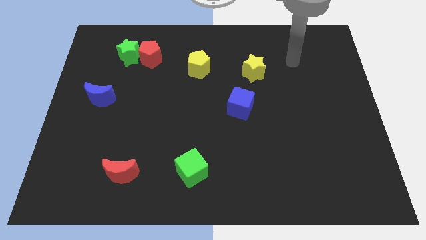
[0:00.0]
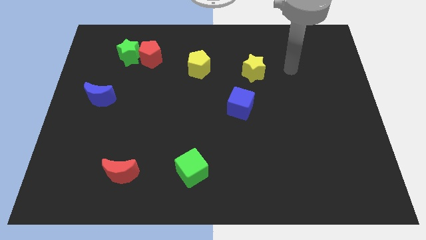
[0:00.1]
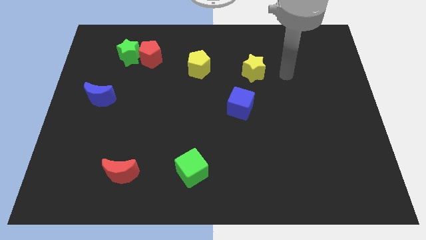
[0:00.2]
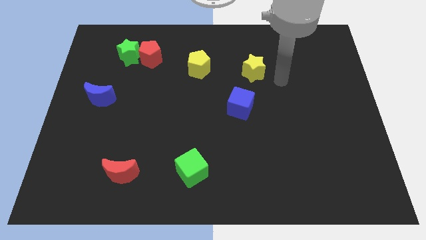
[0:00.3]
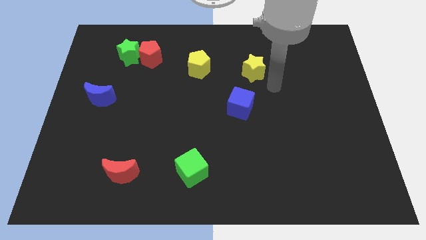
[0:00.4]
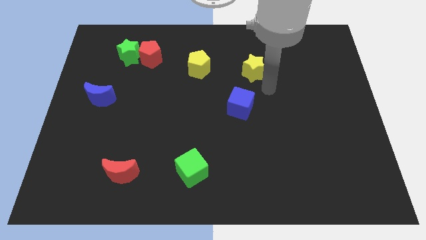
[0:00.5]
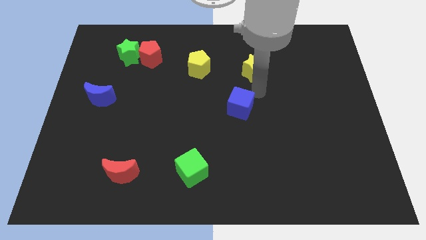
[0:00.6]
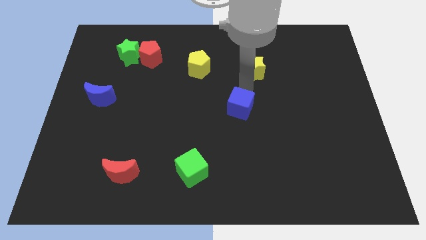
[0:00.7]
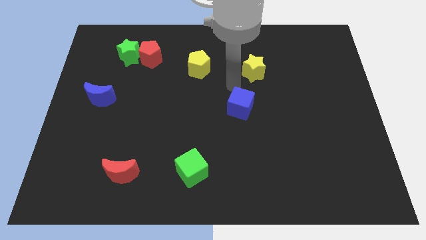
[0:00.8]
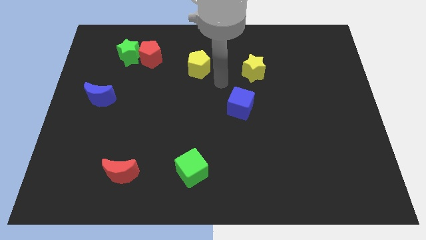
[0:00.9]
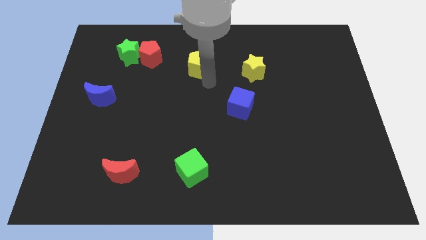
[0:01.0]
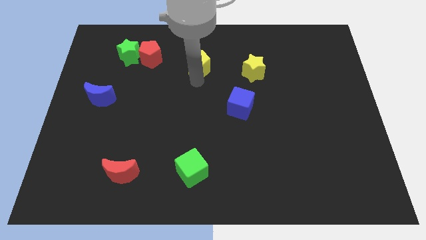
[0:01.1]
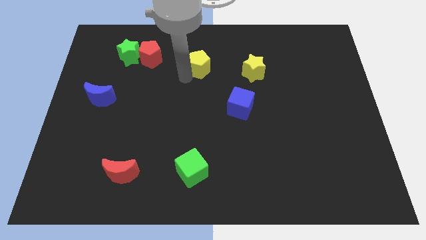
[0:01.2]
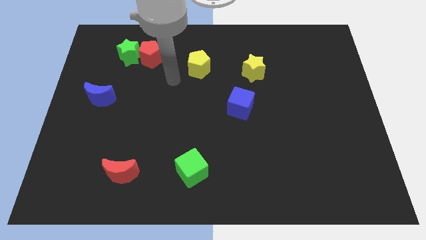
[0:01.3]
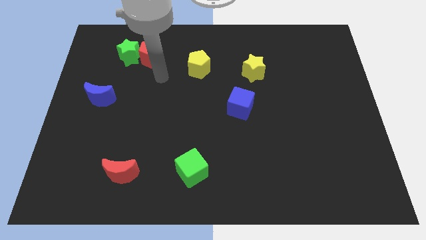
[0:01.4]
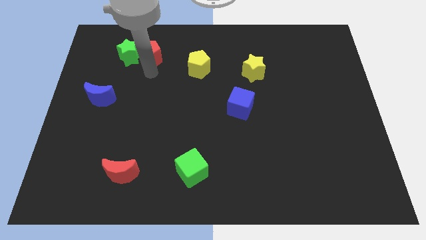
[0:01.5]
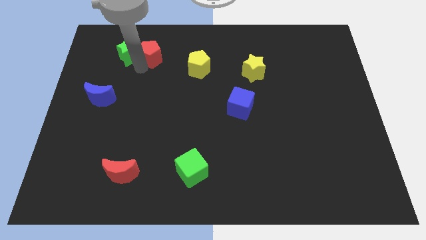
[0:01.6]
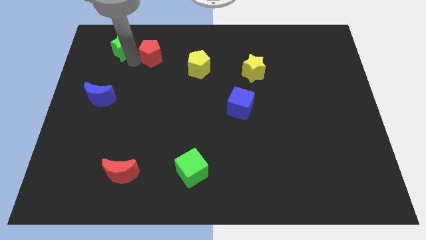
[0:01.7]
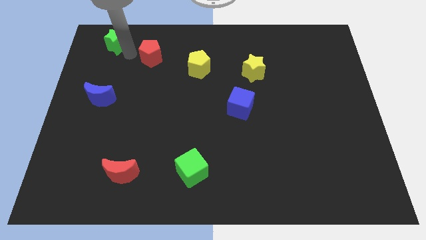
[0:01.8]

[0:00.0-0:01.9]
pull the red pentagon apart from the green star

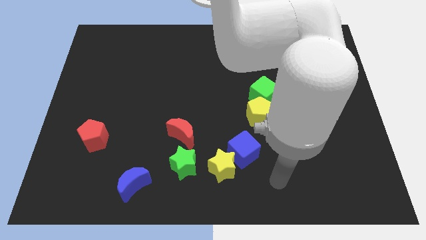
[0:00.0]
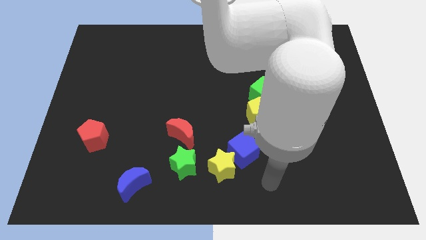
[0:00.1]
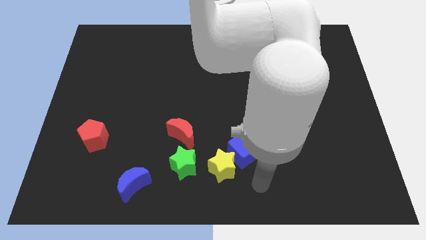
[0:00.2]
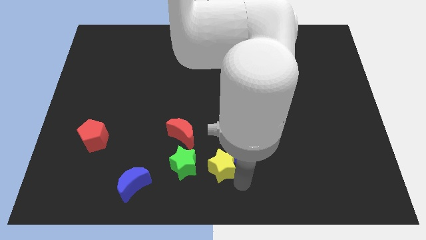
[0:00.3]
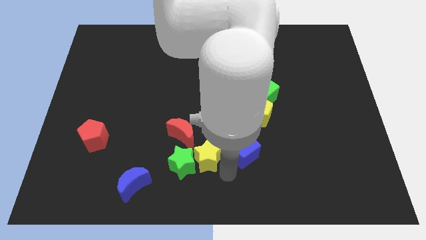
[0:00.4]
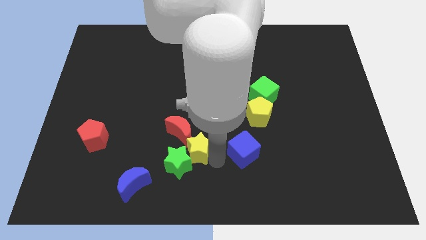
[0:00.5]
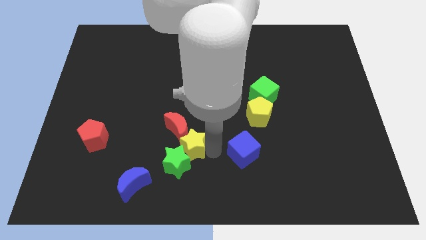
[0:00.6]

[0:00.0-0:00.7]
separate the blue cube from the yellow star

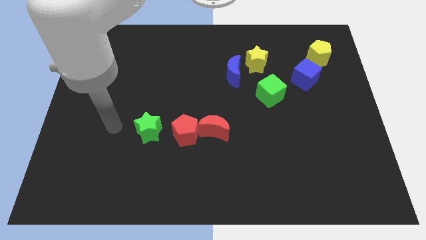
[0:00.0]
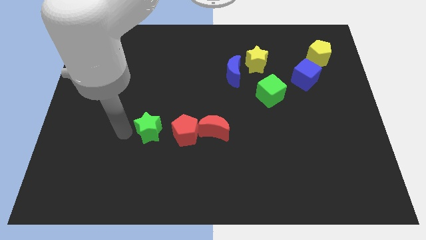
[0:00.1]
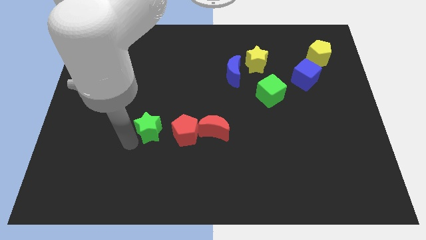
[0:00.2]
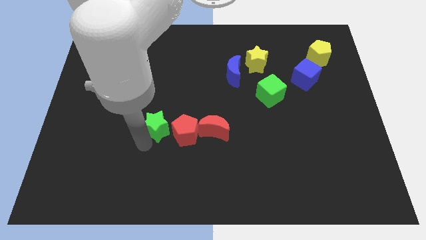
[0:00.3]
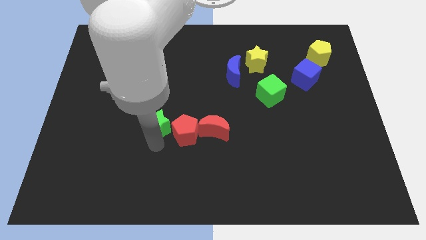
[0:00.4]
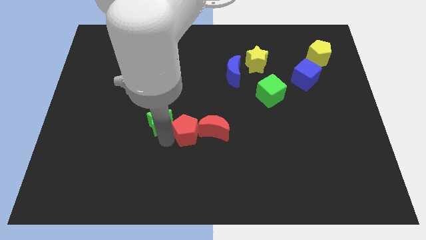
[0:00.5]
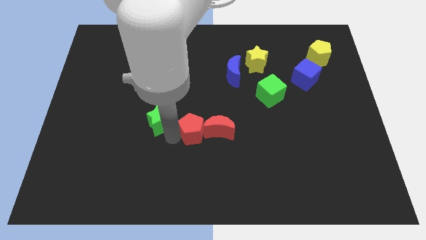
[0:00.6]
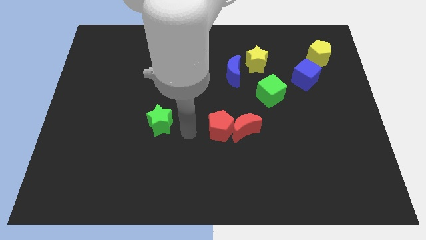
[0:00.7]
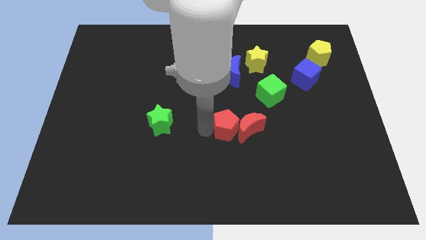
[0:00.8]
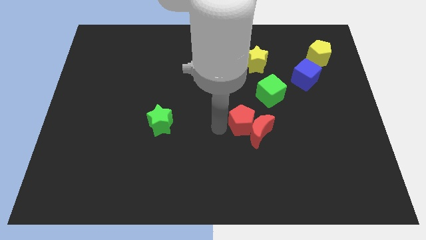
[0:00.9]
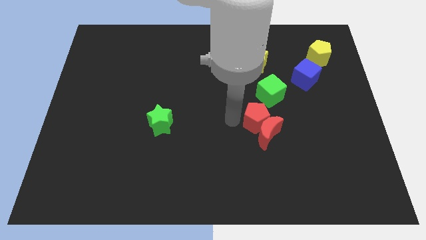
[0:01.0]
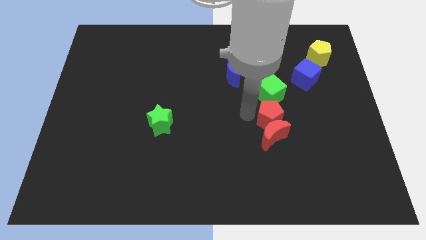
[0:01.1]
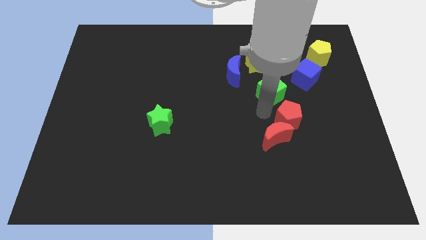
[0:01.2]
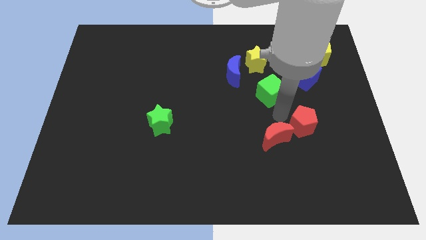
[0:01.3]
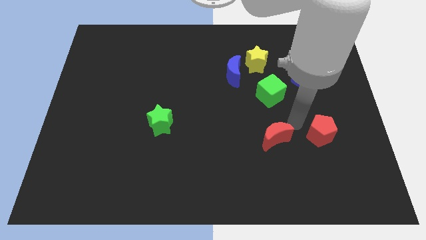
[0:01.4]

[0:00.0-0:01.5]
pull the red moon apart from the red pentagon

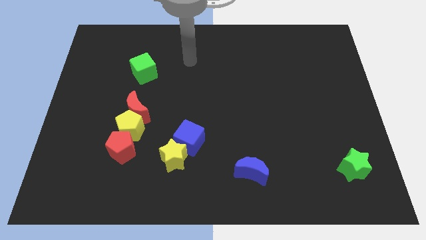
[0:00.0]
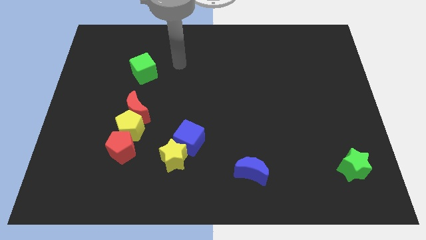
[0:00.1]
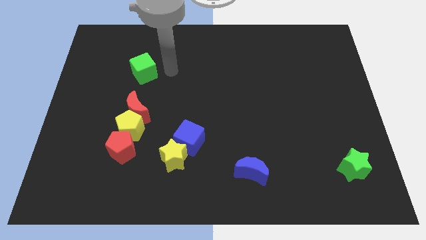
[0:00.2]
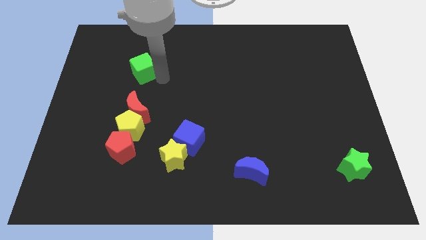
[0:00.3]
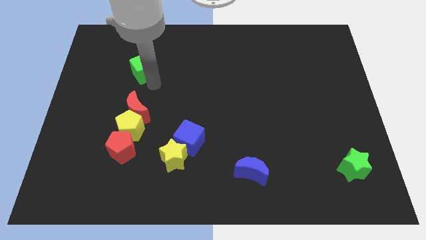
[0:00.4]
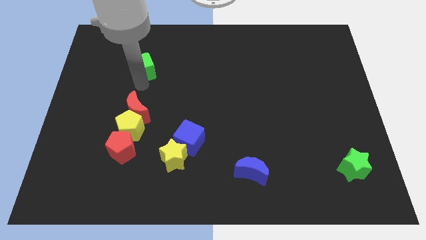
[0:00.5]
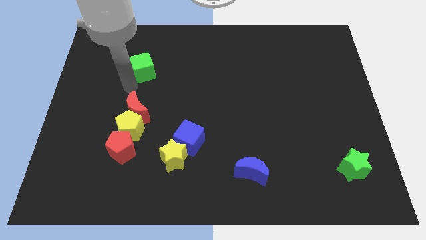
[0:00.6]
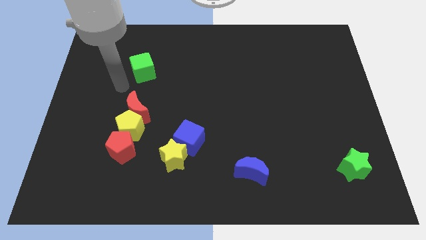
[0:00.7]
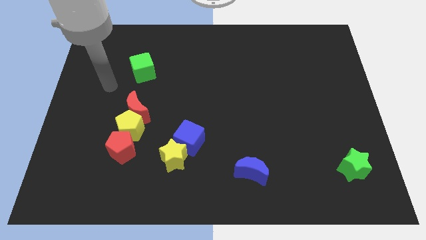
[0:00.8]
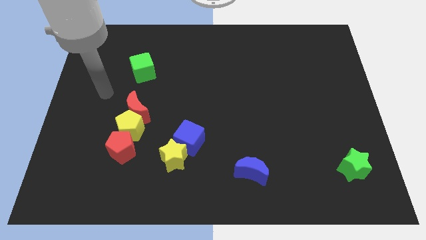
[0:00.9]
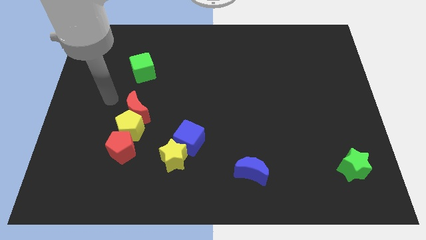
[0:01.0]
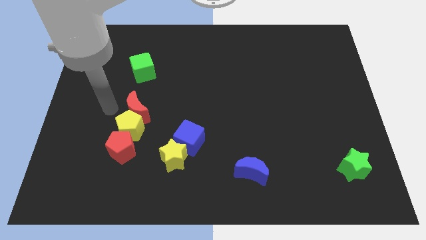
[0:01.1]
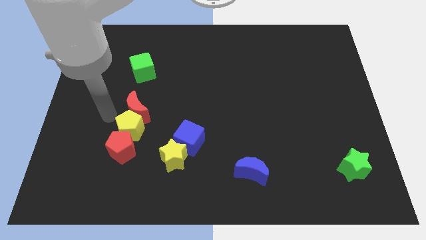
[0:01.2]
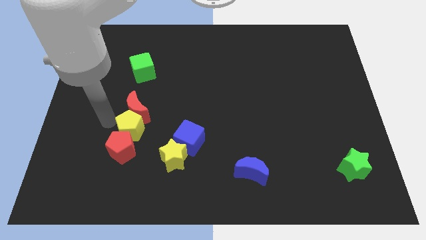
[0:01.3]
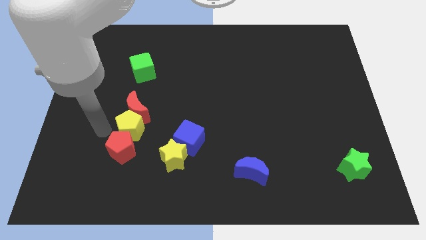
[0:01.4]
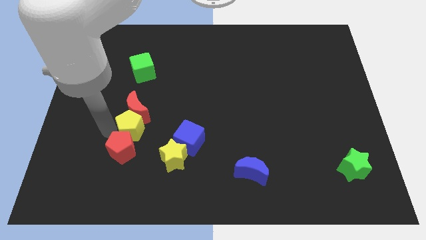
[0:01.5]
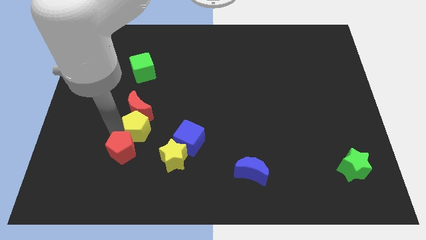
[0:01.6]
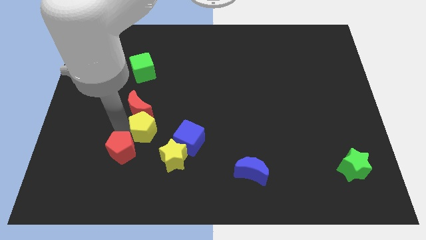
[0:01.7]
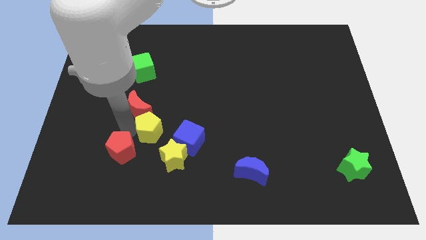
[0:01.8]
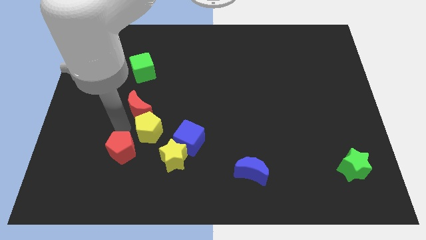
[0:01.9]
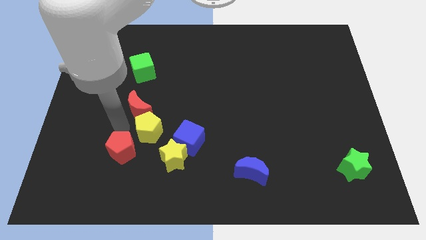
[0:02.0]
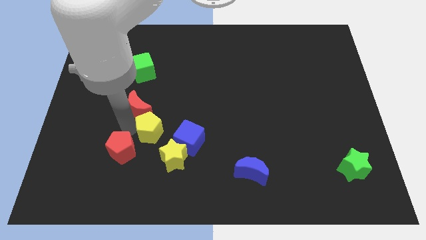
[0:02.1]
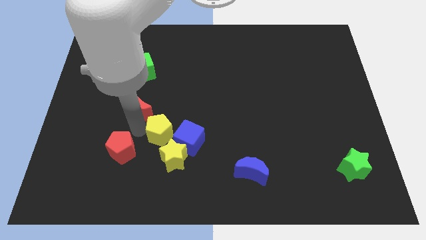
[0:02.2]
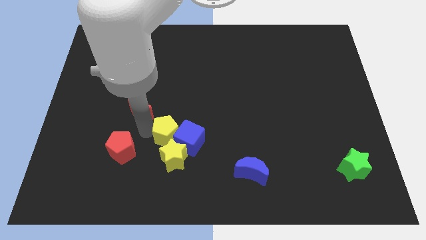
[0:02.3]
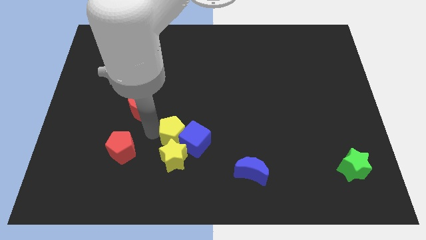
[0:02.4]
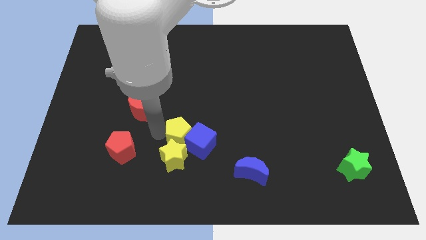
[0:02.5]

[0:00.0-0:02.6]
pull the yellow pentagon apart from the red moon and red pentagon

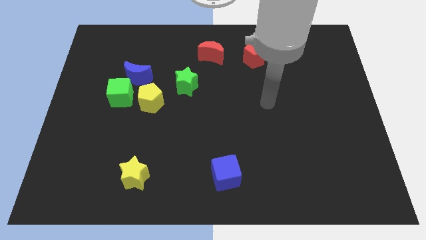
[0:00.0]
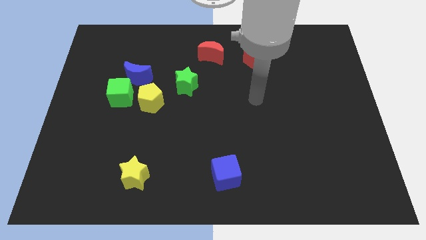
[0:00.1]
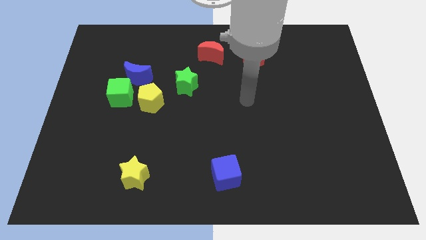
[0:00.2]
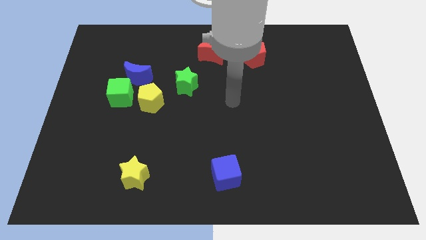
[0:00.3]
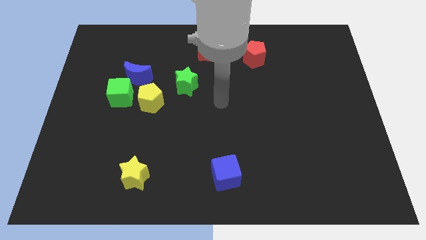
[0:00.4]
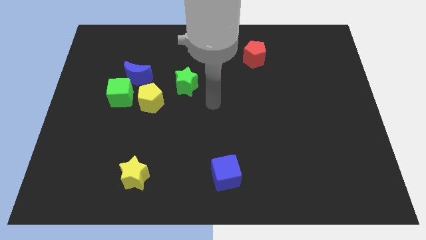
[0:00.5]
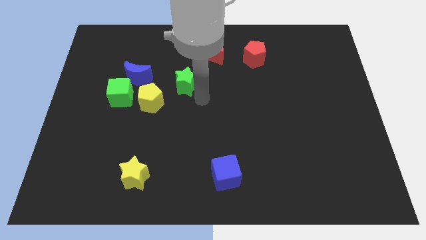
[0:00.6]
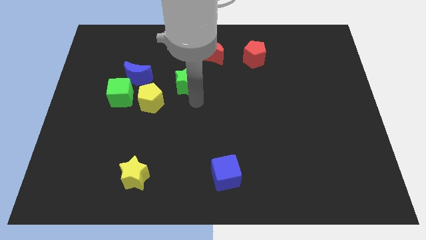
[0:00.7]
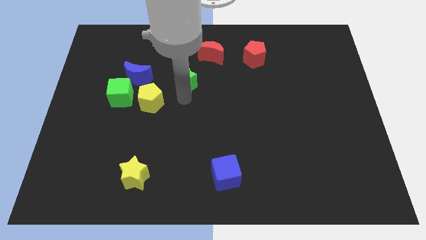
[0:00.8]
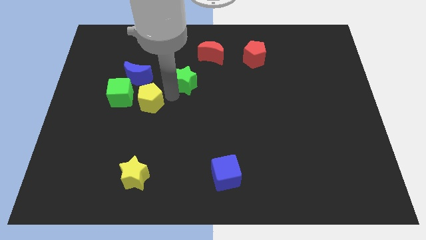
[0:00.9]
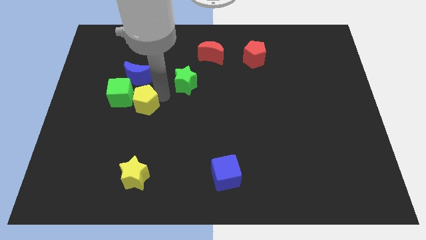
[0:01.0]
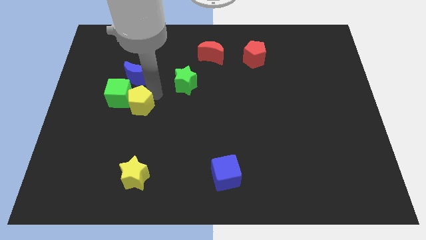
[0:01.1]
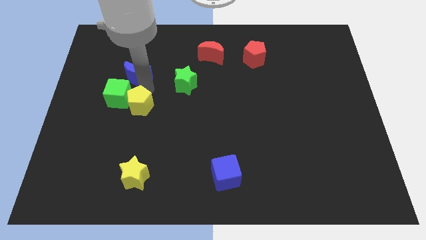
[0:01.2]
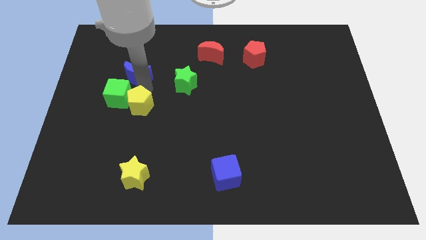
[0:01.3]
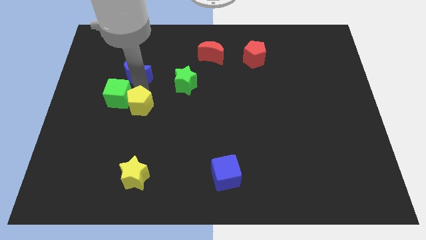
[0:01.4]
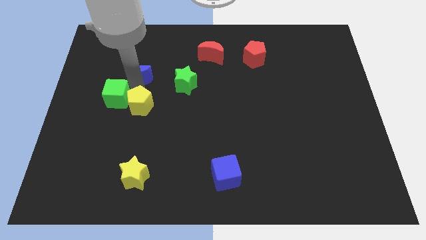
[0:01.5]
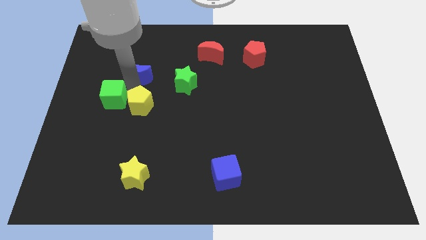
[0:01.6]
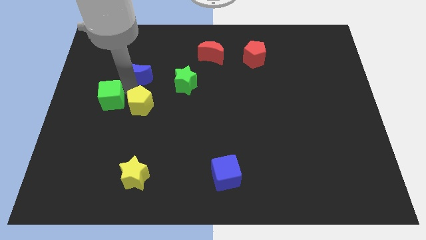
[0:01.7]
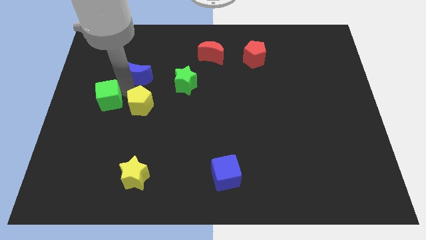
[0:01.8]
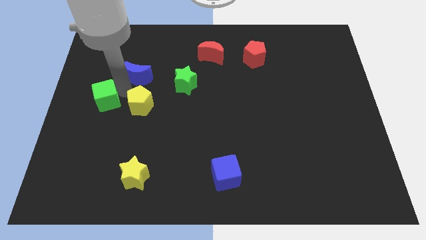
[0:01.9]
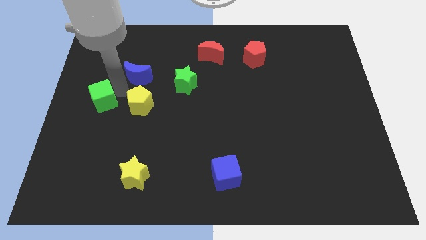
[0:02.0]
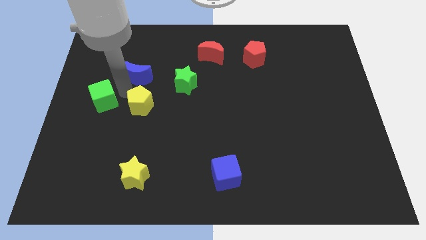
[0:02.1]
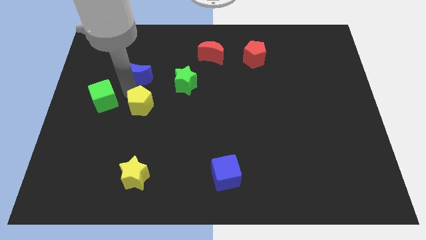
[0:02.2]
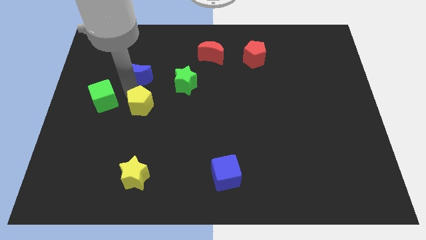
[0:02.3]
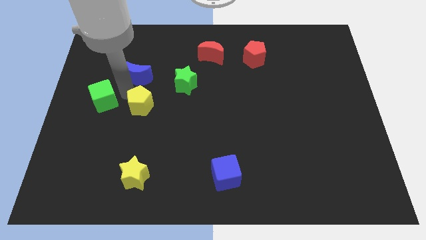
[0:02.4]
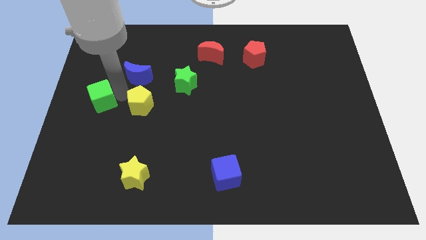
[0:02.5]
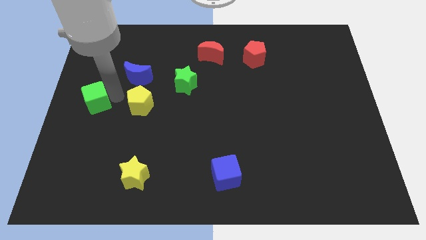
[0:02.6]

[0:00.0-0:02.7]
pull the green cube apart from the blue moon and yellow pentagon
